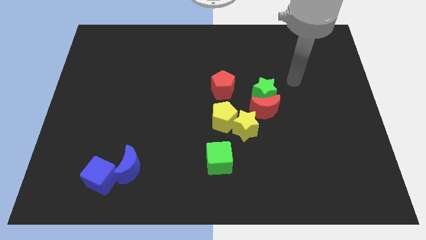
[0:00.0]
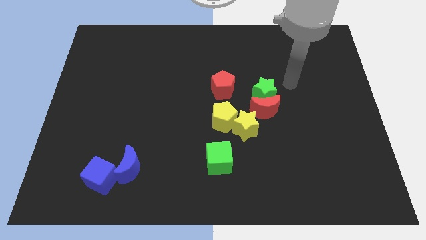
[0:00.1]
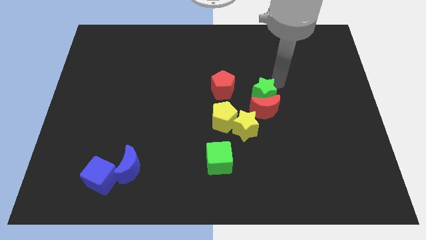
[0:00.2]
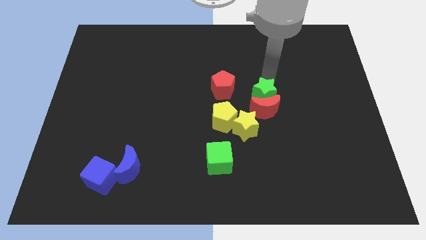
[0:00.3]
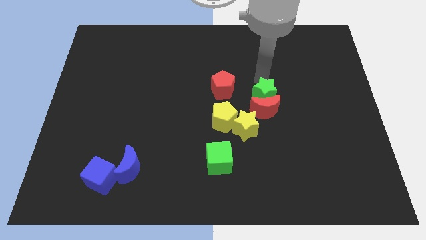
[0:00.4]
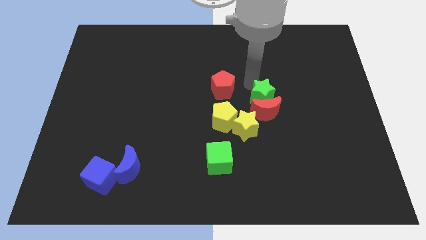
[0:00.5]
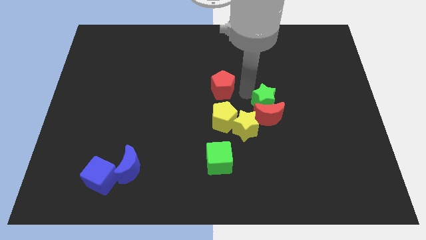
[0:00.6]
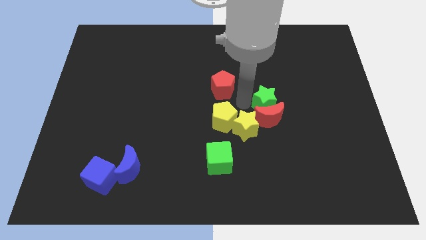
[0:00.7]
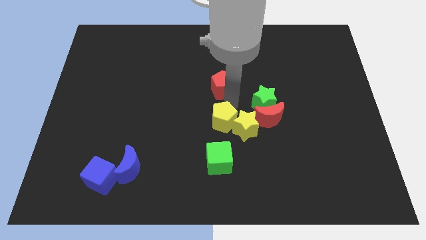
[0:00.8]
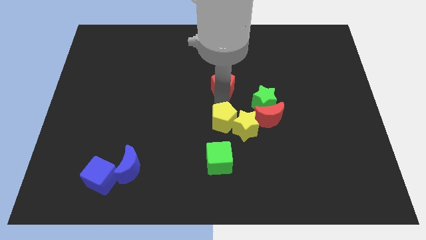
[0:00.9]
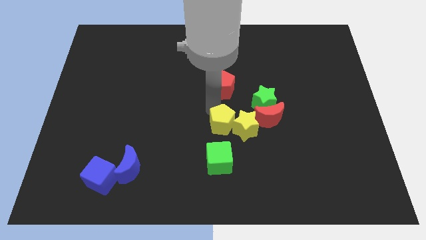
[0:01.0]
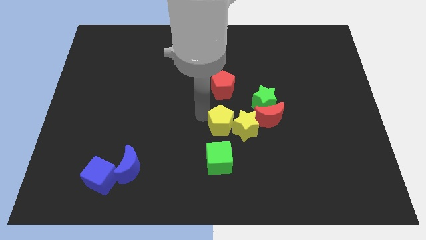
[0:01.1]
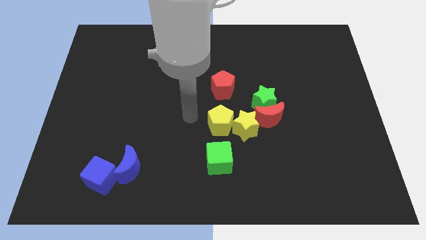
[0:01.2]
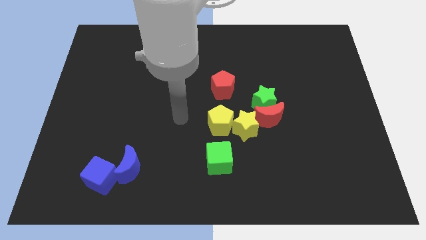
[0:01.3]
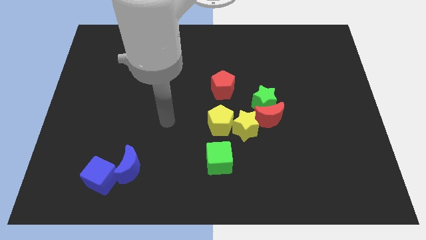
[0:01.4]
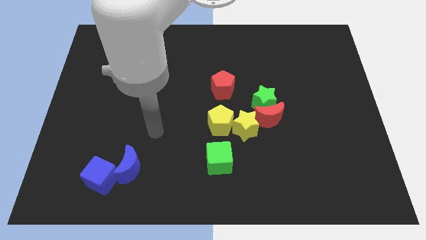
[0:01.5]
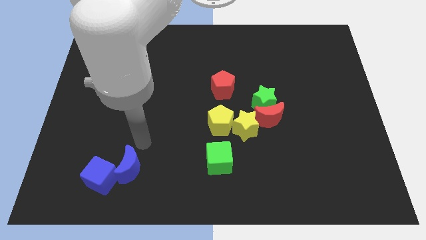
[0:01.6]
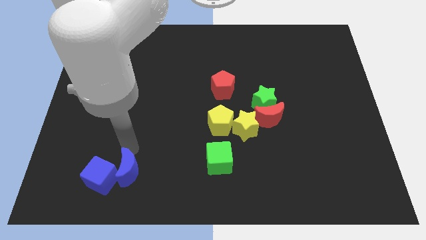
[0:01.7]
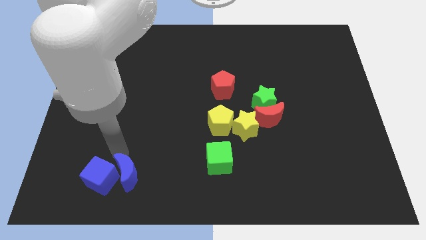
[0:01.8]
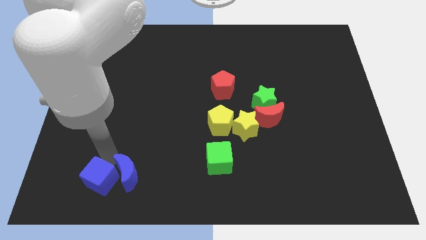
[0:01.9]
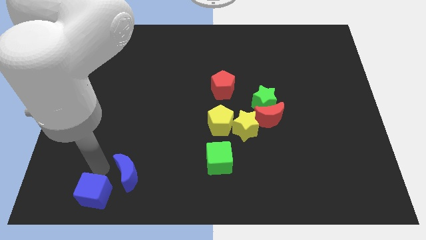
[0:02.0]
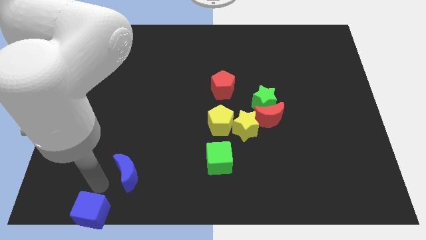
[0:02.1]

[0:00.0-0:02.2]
move the blue moon away from the blue cube

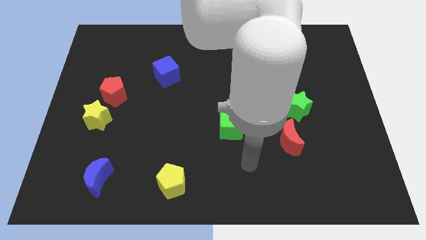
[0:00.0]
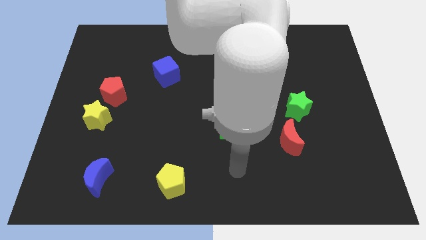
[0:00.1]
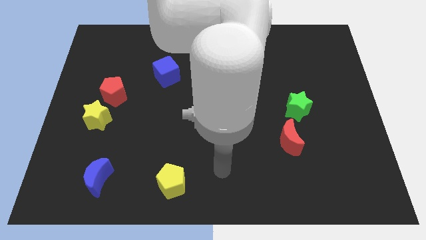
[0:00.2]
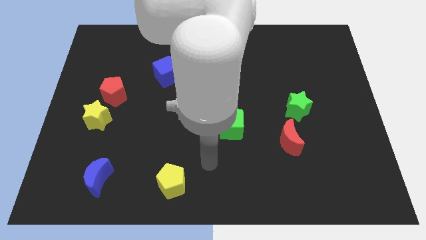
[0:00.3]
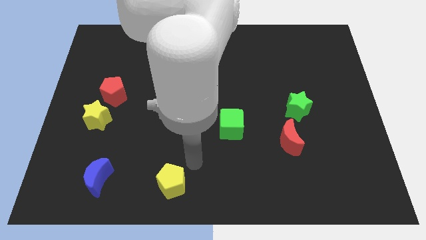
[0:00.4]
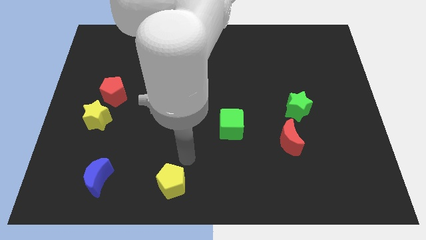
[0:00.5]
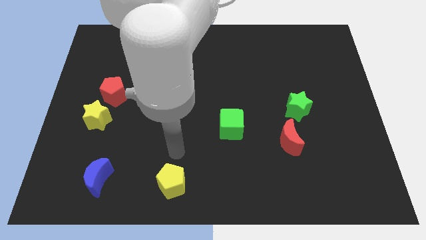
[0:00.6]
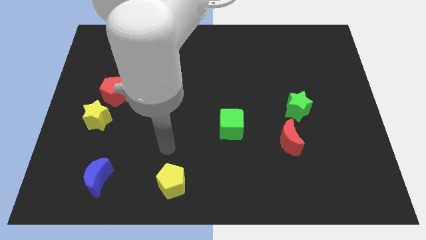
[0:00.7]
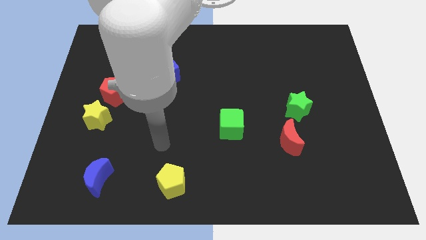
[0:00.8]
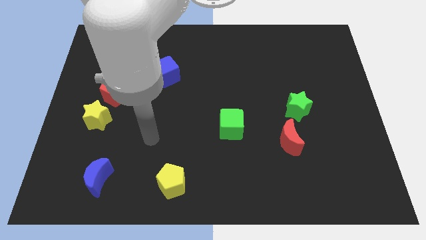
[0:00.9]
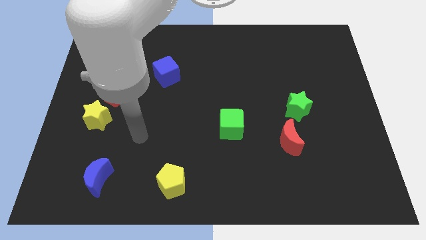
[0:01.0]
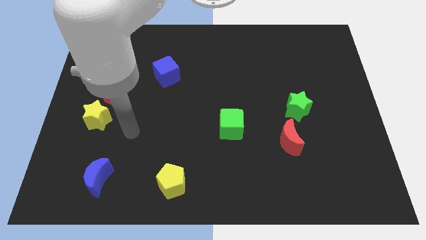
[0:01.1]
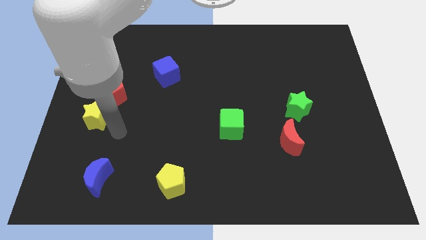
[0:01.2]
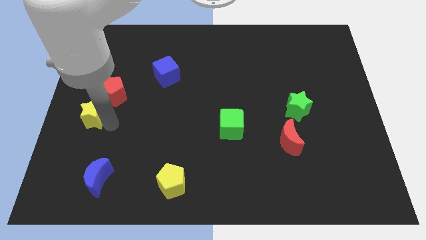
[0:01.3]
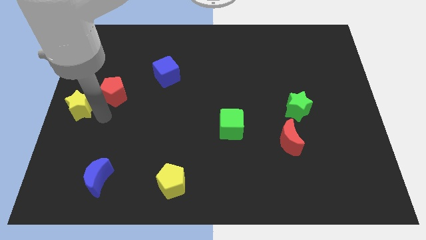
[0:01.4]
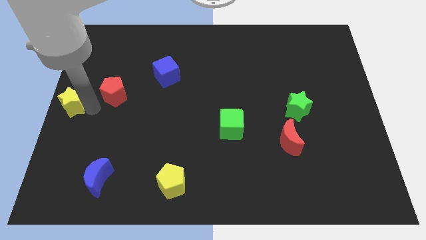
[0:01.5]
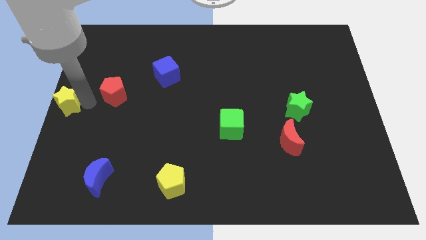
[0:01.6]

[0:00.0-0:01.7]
separate the red pentagon from the yellow star

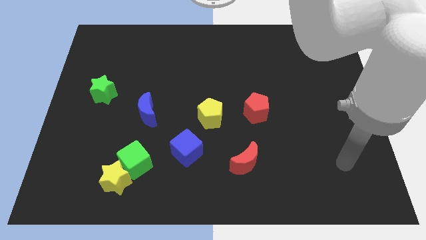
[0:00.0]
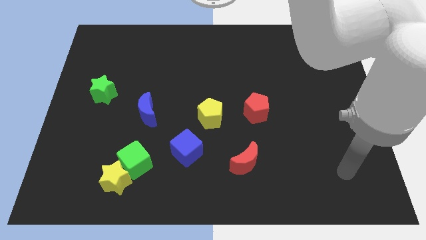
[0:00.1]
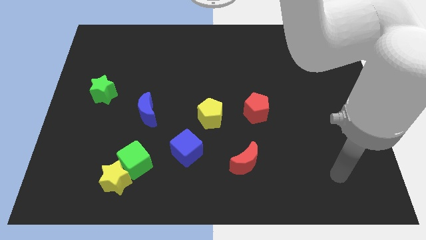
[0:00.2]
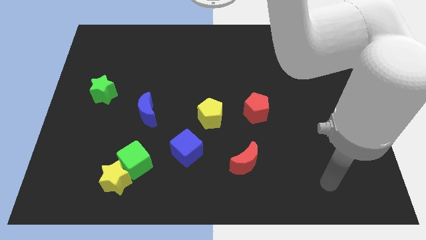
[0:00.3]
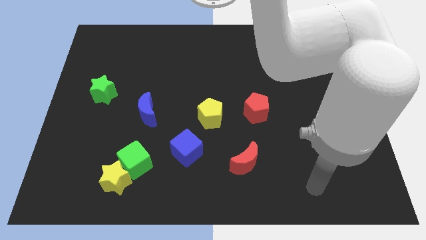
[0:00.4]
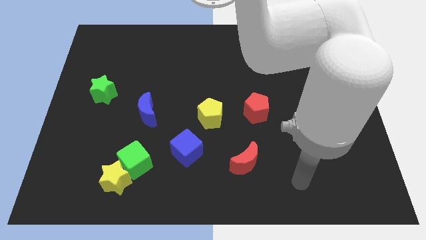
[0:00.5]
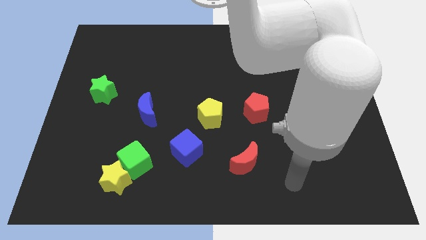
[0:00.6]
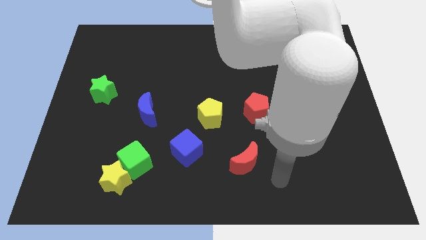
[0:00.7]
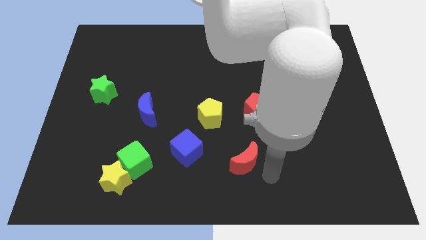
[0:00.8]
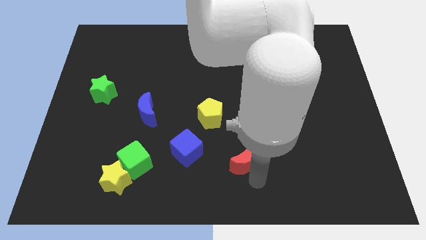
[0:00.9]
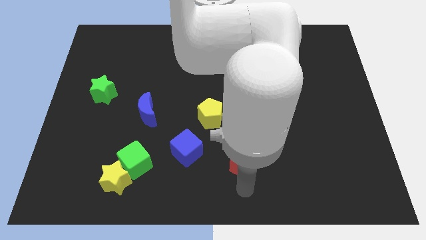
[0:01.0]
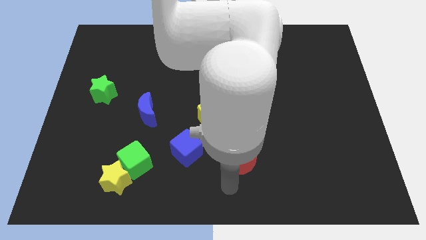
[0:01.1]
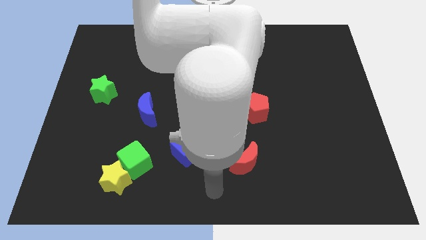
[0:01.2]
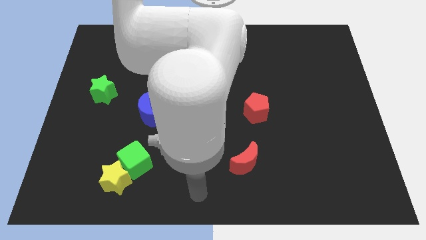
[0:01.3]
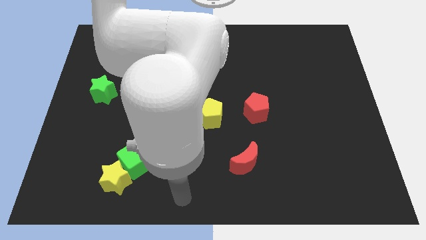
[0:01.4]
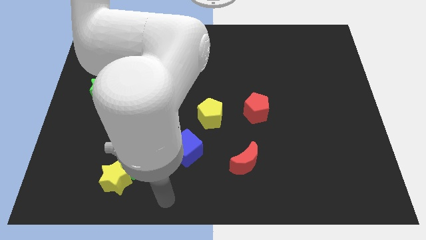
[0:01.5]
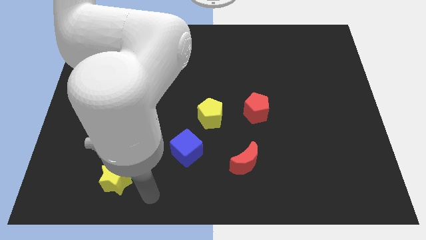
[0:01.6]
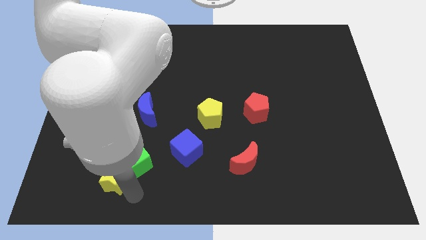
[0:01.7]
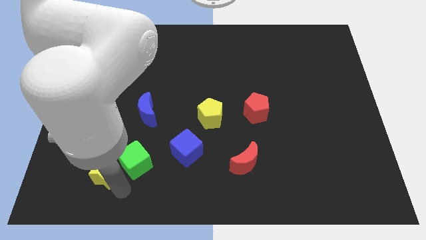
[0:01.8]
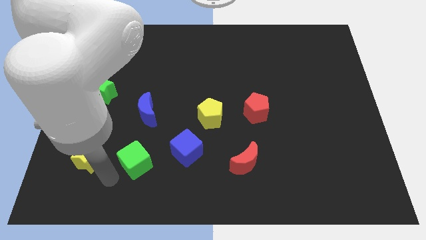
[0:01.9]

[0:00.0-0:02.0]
pull the green cube apart from the yellow star

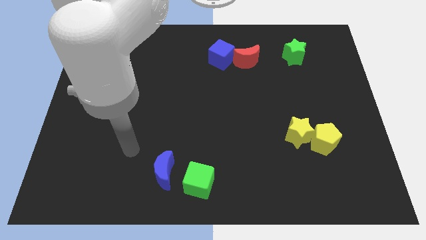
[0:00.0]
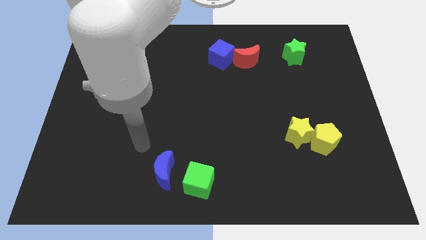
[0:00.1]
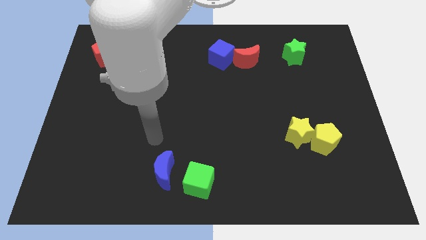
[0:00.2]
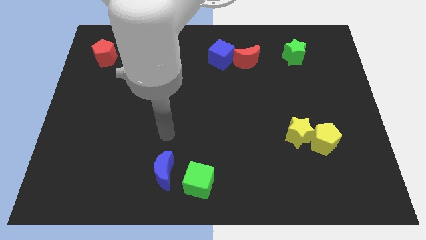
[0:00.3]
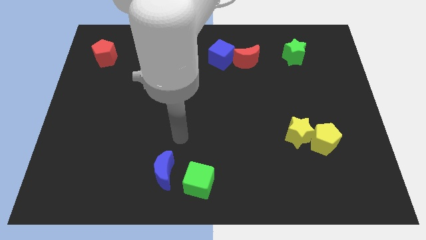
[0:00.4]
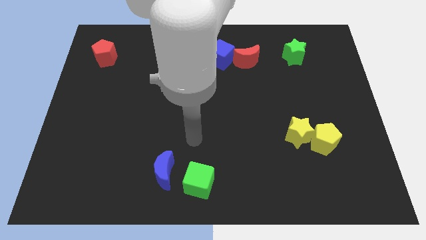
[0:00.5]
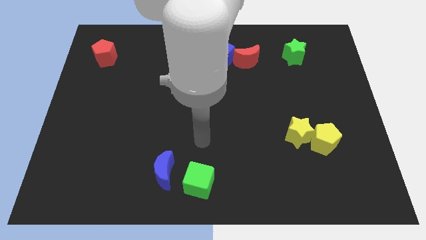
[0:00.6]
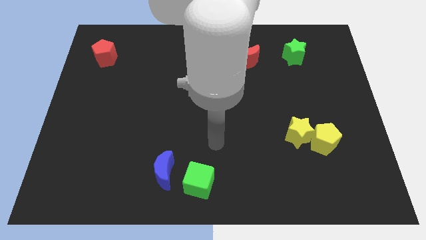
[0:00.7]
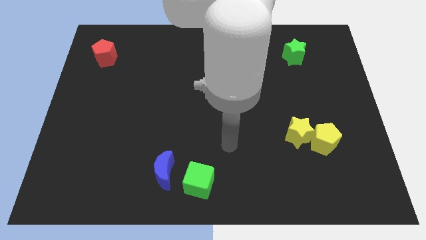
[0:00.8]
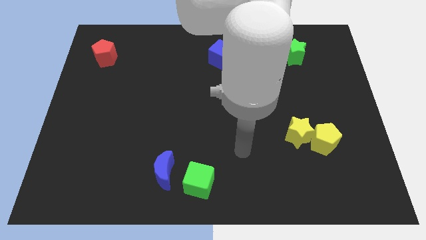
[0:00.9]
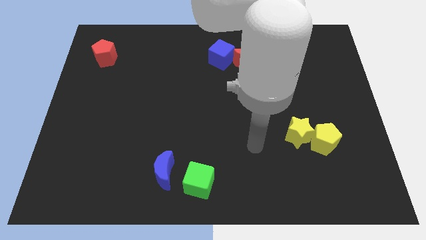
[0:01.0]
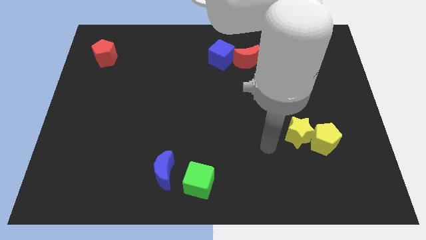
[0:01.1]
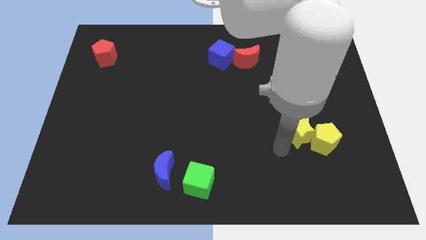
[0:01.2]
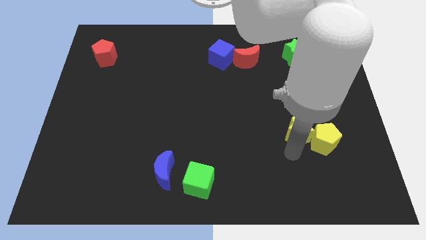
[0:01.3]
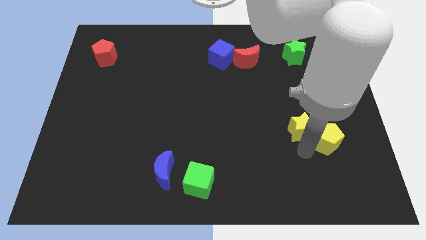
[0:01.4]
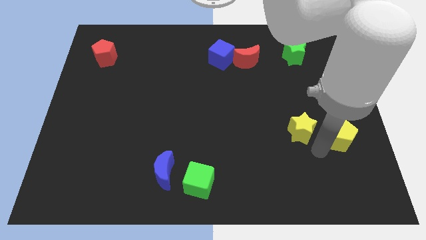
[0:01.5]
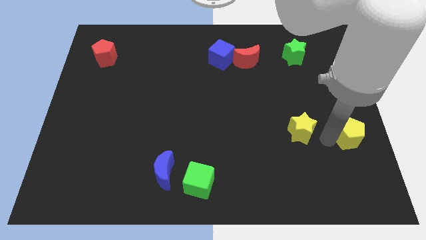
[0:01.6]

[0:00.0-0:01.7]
move the yellow star away from the yellow pentagon

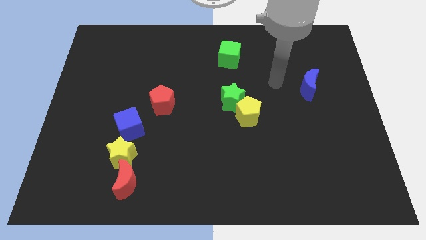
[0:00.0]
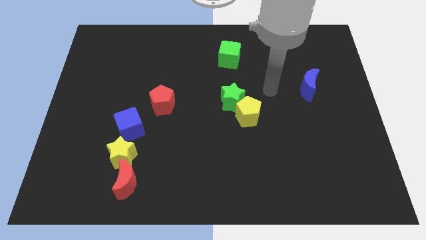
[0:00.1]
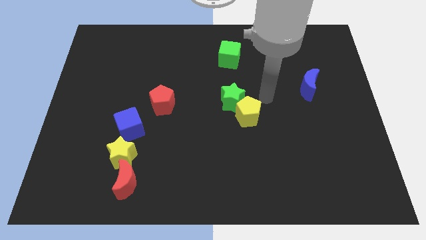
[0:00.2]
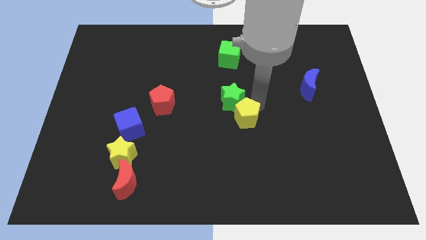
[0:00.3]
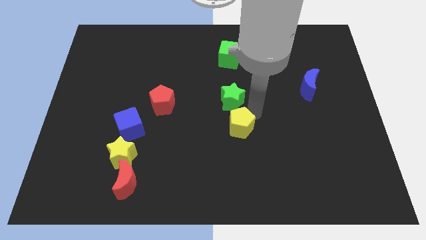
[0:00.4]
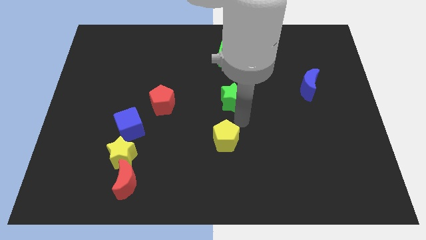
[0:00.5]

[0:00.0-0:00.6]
pull the green star apart from the yellow pentagon

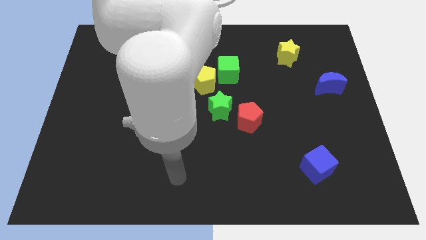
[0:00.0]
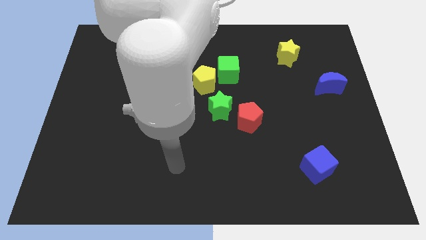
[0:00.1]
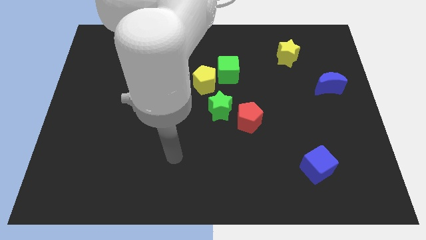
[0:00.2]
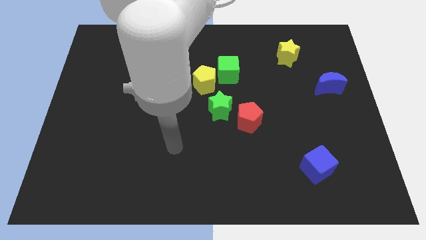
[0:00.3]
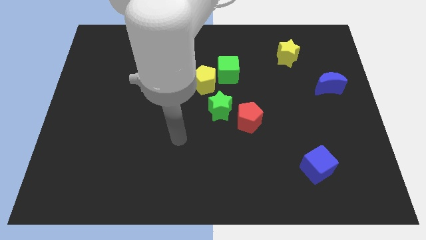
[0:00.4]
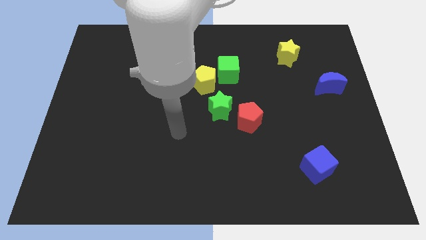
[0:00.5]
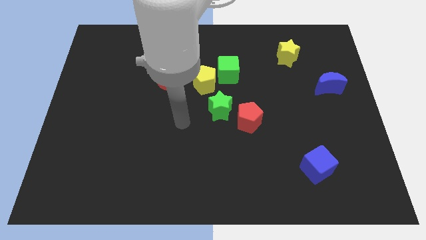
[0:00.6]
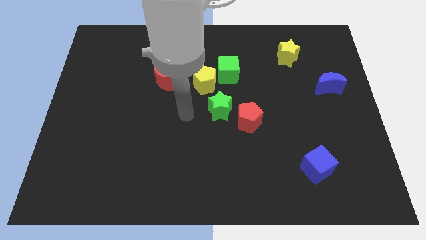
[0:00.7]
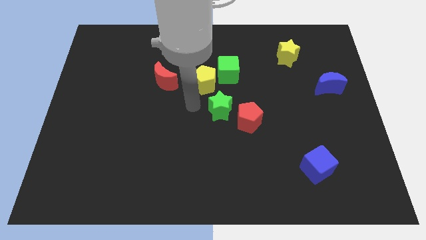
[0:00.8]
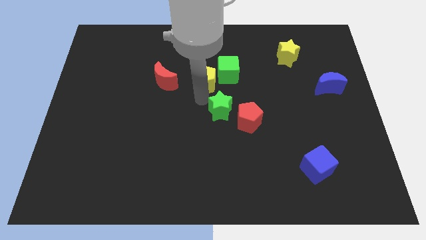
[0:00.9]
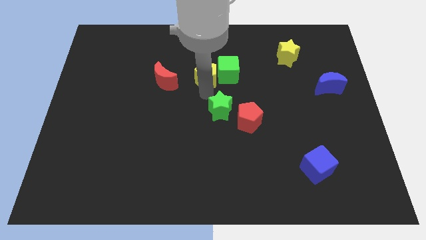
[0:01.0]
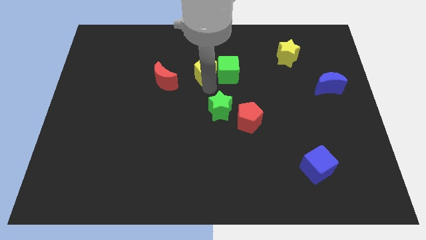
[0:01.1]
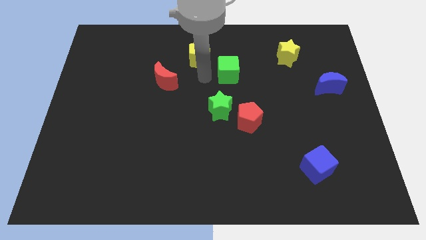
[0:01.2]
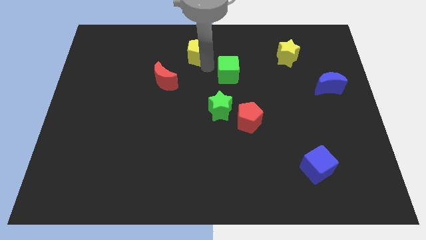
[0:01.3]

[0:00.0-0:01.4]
separate the green cube from the yellow pentagon
